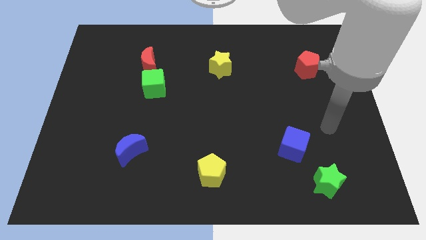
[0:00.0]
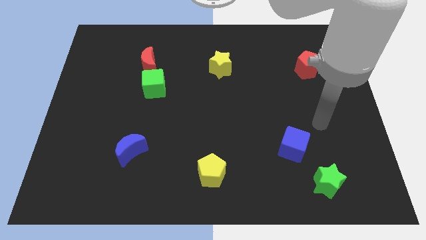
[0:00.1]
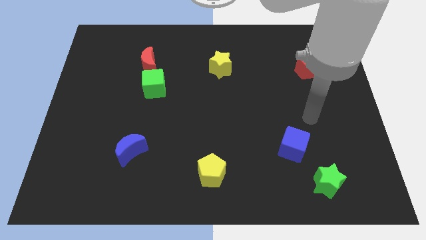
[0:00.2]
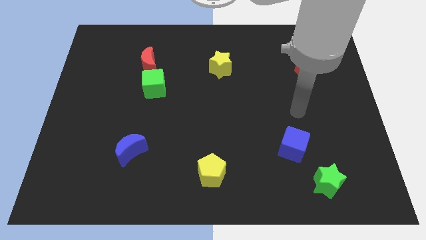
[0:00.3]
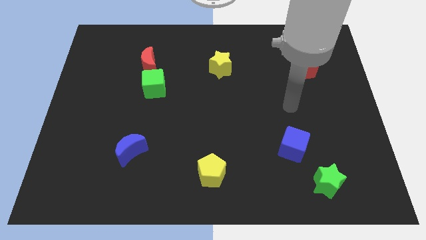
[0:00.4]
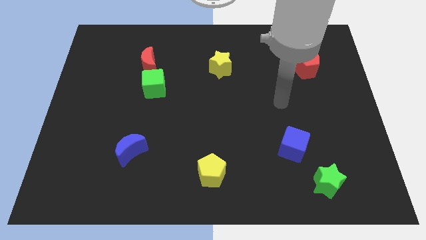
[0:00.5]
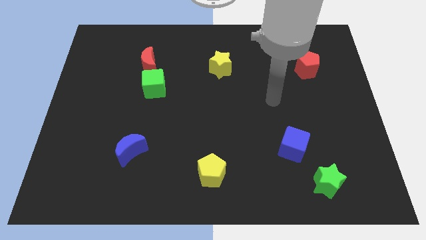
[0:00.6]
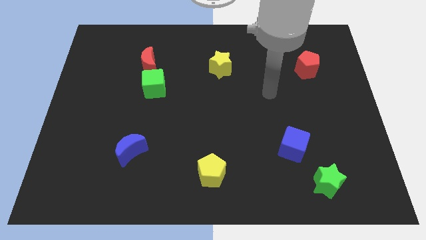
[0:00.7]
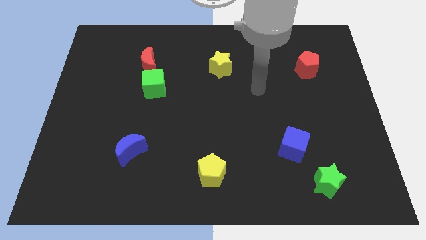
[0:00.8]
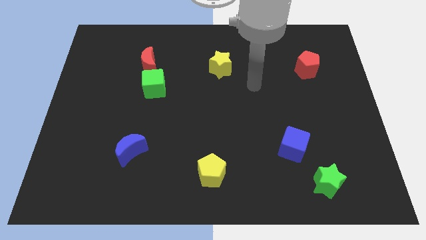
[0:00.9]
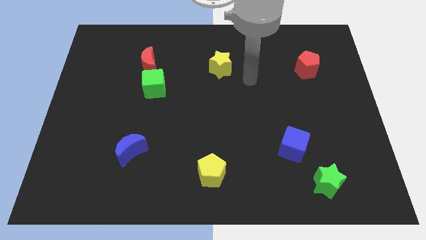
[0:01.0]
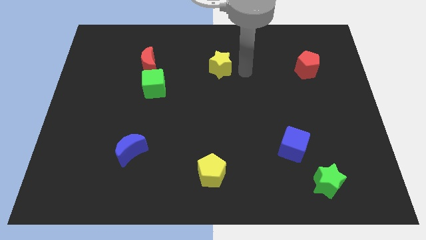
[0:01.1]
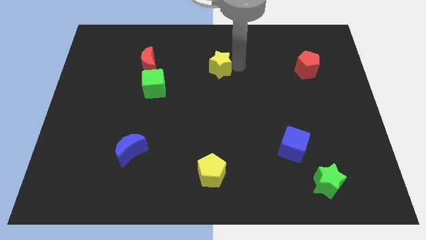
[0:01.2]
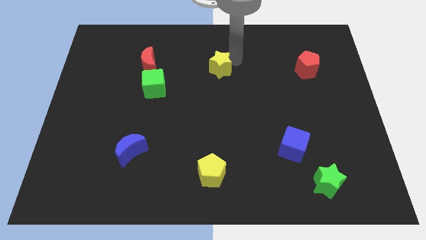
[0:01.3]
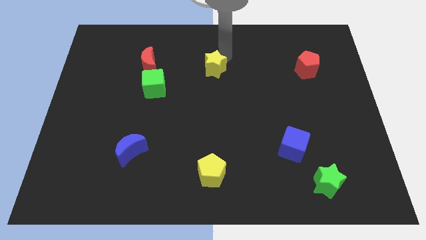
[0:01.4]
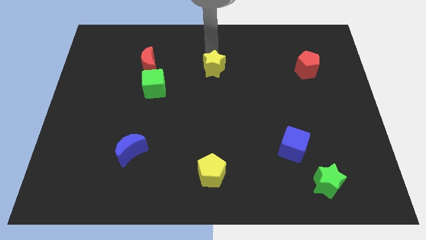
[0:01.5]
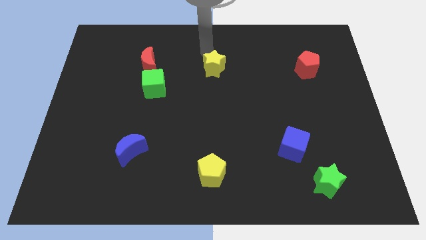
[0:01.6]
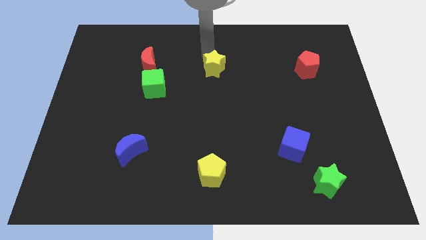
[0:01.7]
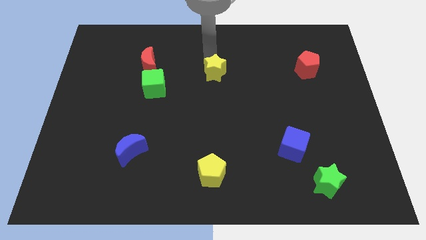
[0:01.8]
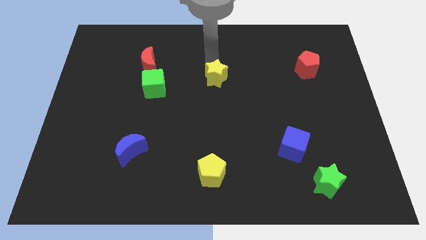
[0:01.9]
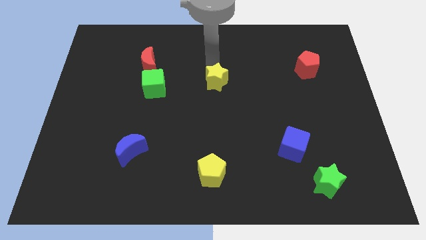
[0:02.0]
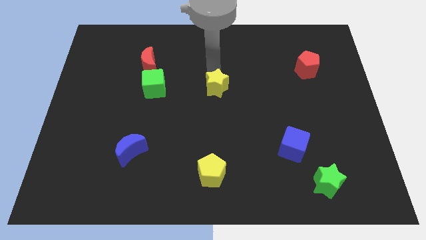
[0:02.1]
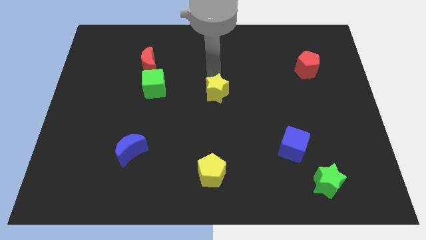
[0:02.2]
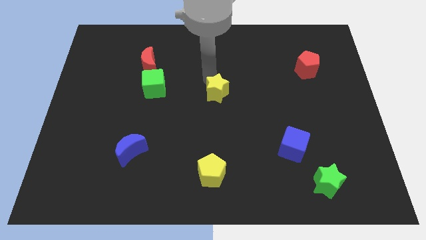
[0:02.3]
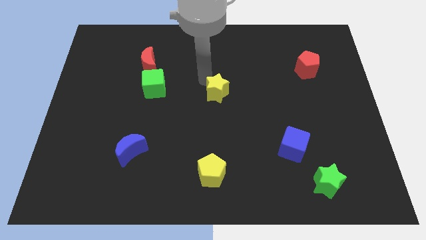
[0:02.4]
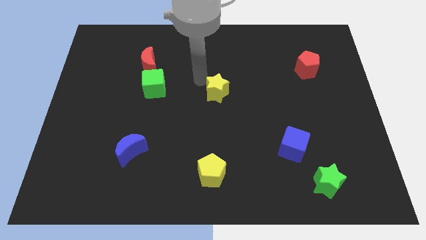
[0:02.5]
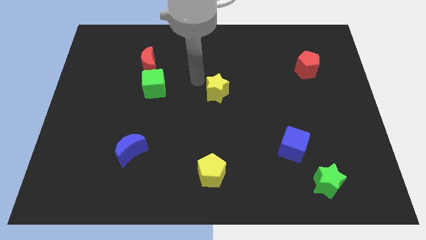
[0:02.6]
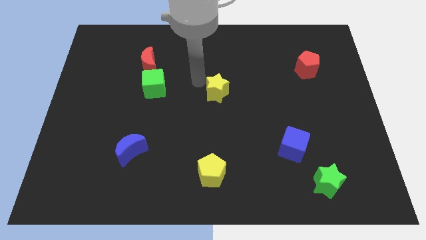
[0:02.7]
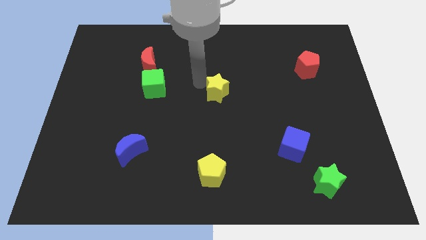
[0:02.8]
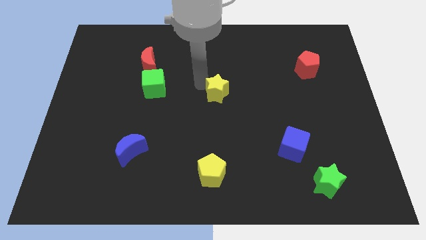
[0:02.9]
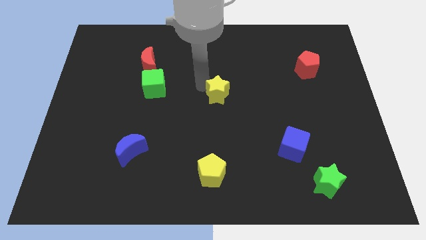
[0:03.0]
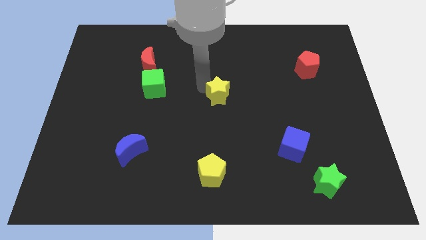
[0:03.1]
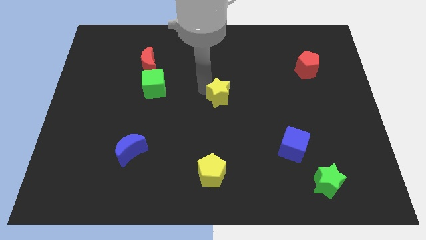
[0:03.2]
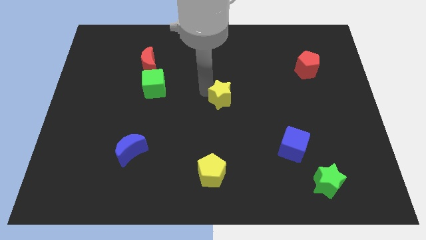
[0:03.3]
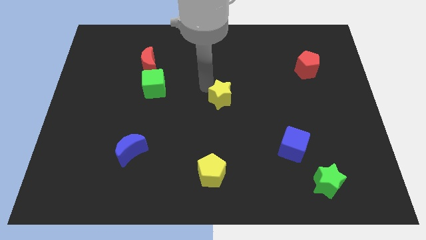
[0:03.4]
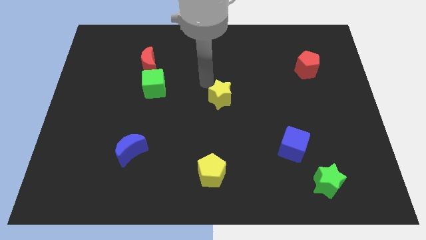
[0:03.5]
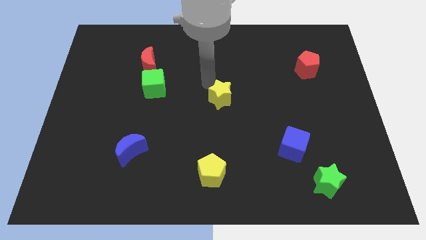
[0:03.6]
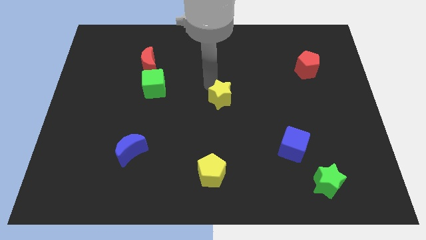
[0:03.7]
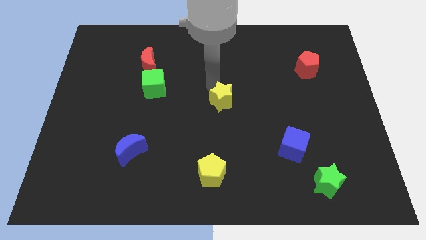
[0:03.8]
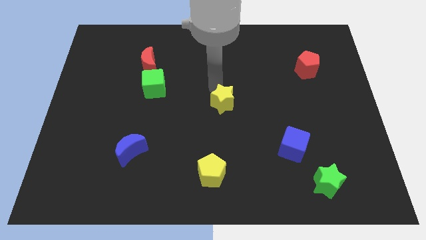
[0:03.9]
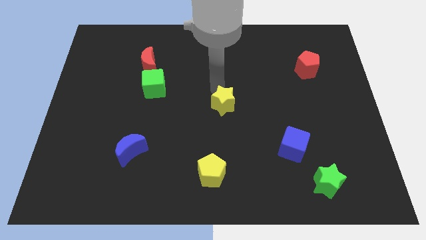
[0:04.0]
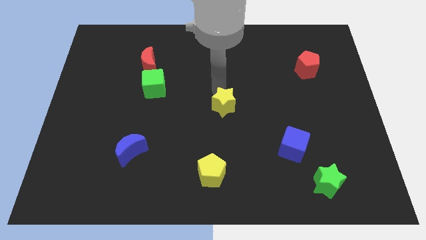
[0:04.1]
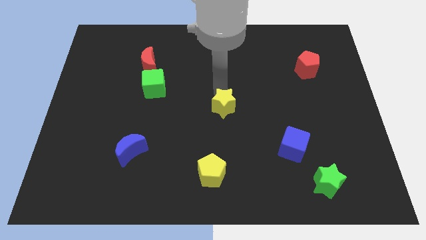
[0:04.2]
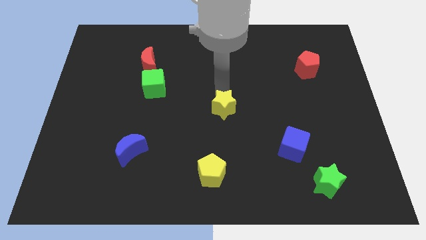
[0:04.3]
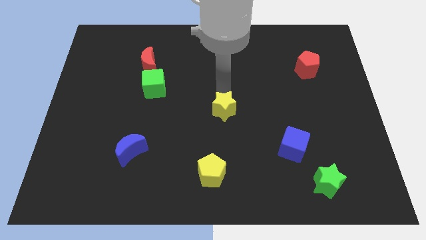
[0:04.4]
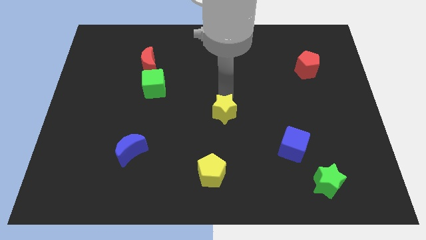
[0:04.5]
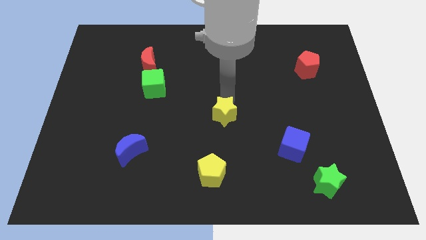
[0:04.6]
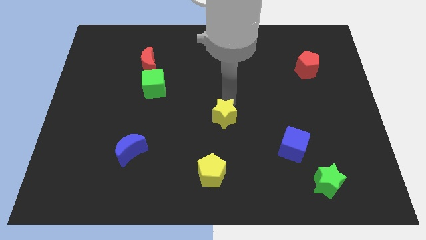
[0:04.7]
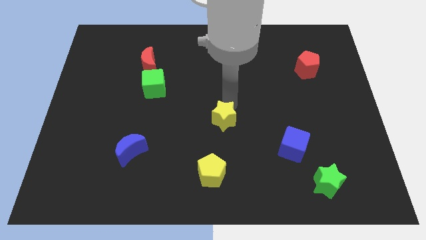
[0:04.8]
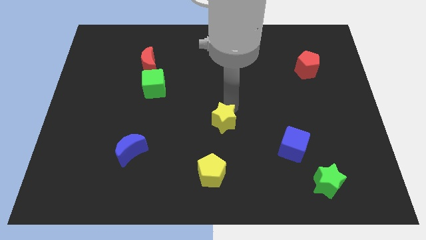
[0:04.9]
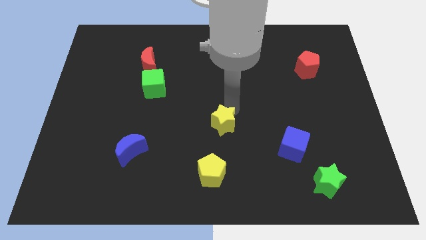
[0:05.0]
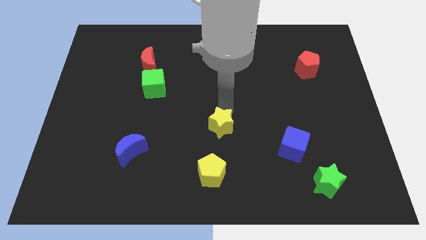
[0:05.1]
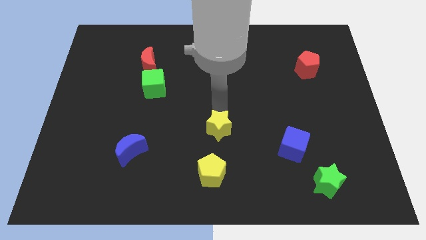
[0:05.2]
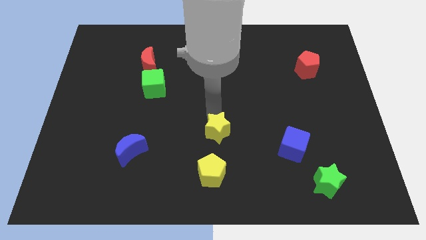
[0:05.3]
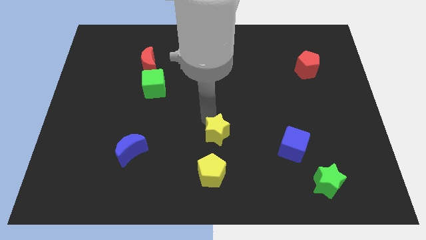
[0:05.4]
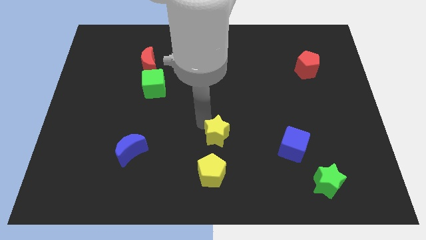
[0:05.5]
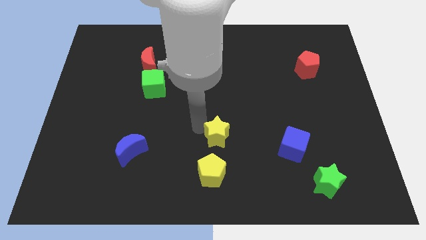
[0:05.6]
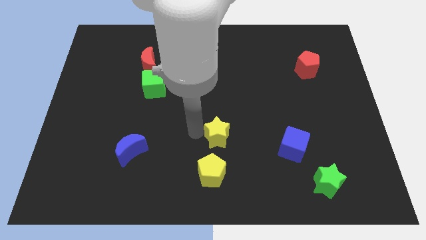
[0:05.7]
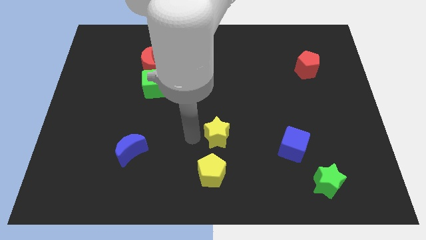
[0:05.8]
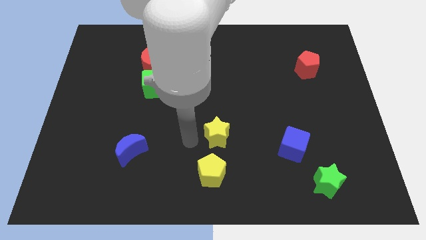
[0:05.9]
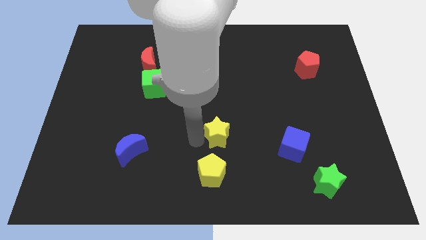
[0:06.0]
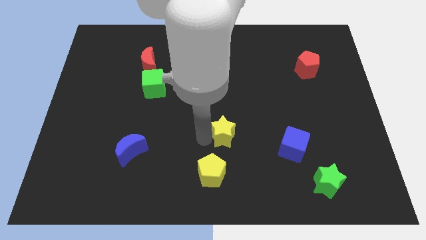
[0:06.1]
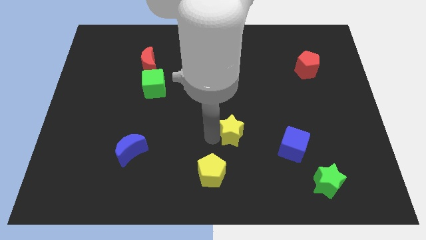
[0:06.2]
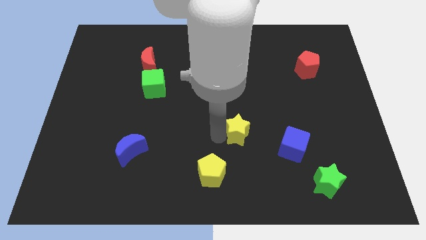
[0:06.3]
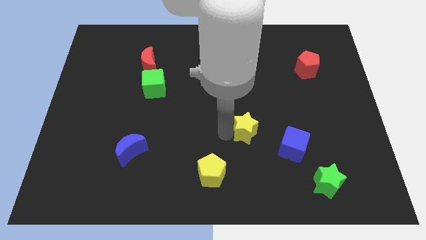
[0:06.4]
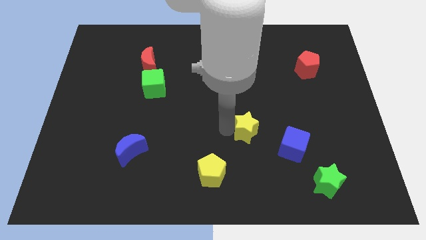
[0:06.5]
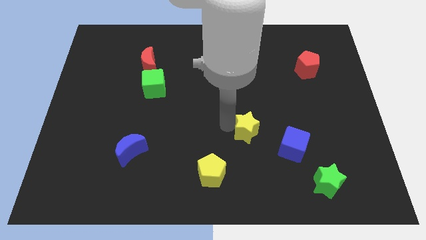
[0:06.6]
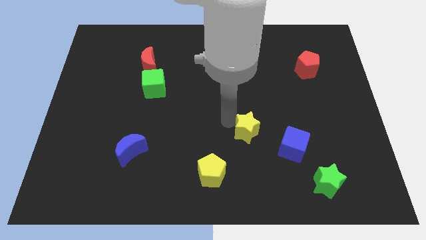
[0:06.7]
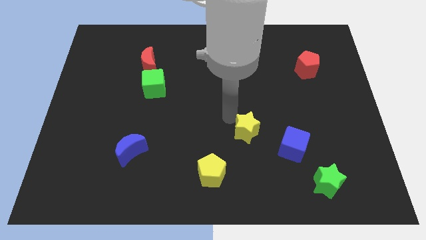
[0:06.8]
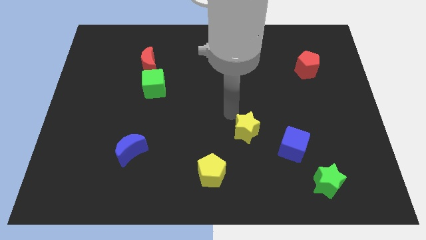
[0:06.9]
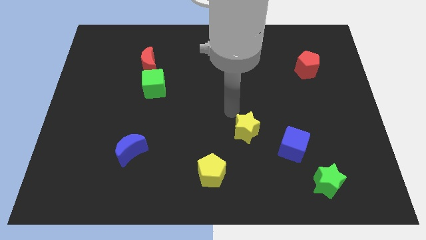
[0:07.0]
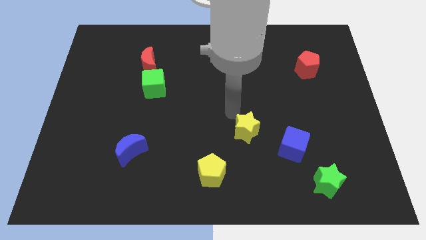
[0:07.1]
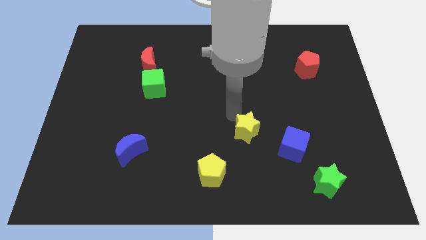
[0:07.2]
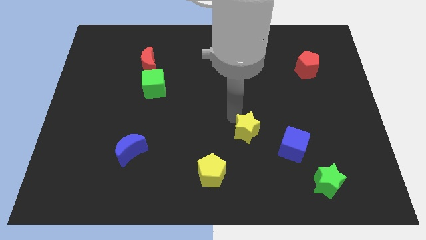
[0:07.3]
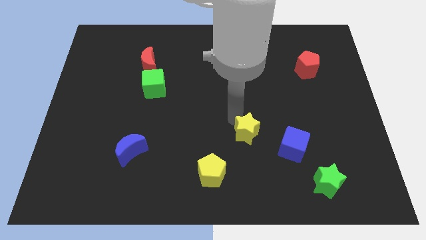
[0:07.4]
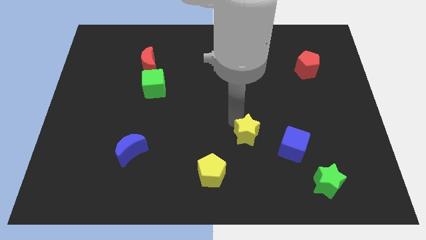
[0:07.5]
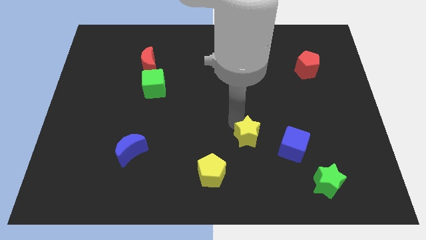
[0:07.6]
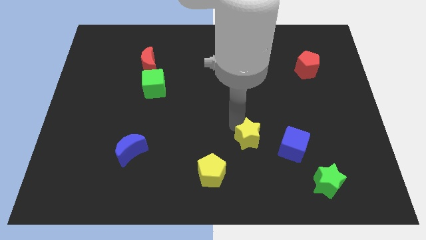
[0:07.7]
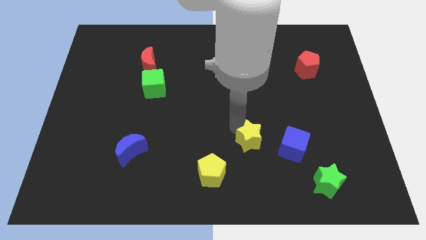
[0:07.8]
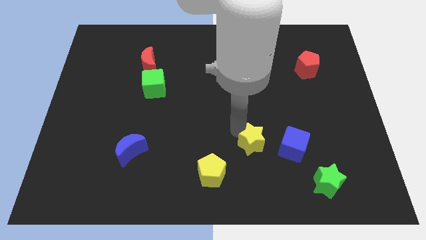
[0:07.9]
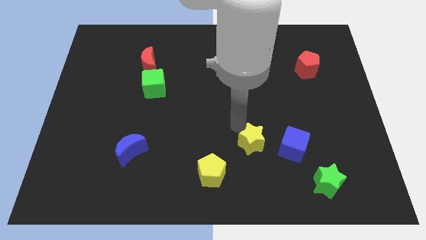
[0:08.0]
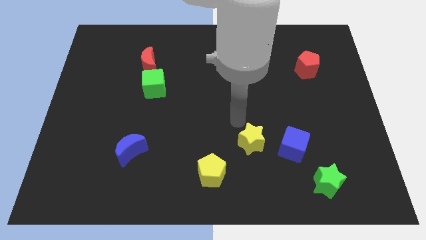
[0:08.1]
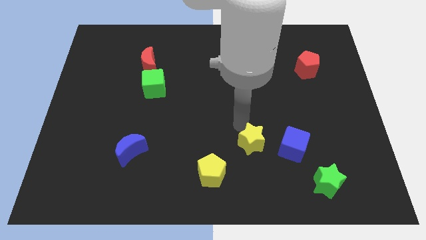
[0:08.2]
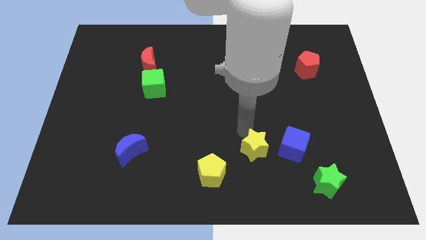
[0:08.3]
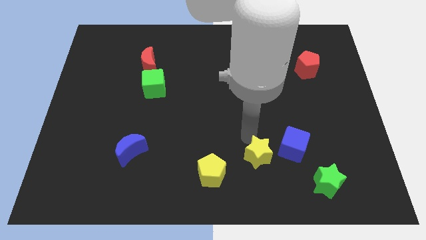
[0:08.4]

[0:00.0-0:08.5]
put the yellow star to the bottom left side of the blue cube
